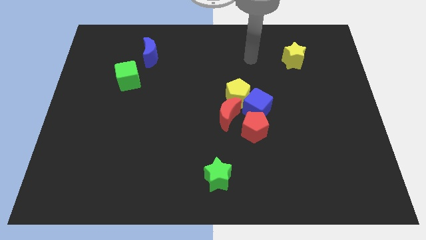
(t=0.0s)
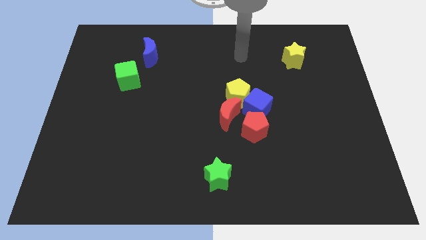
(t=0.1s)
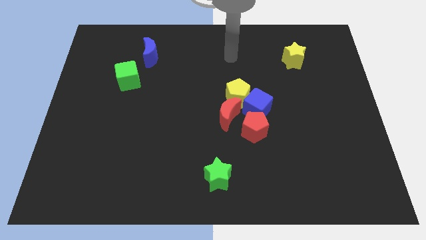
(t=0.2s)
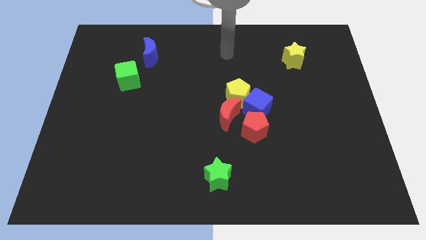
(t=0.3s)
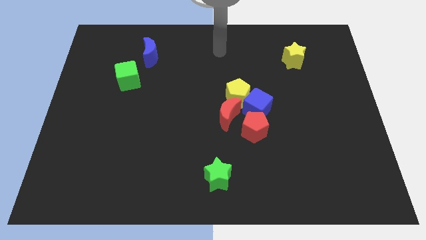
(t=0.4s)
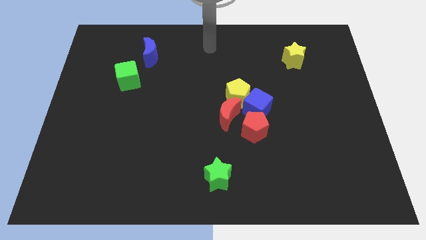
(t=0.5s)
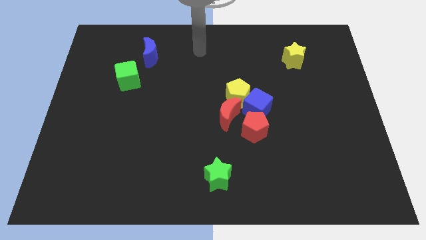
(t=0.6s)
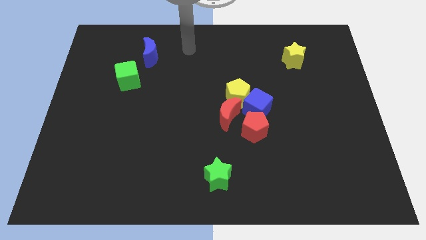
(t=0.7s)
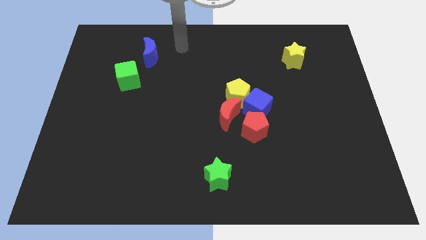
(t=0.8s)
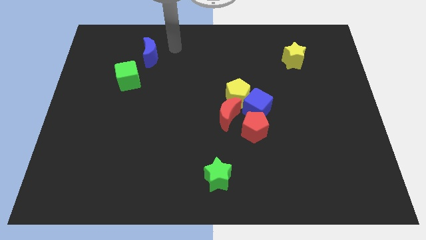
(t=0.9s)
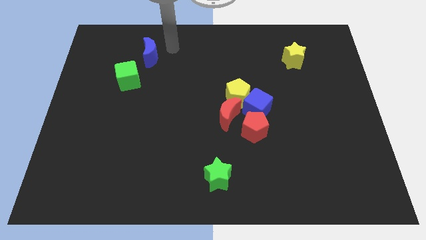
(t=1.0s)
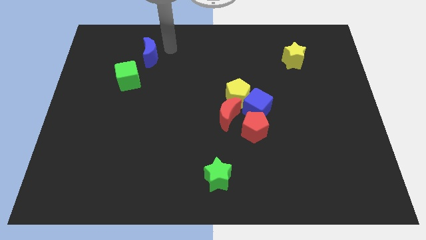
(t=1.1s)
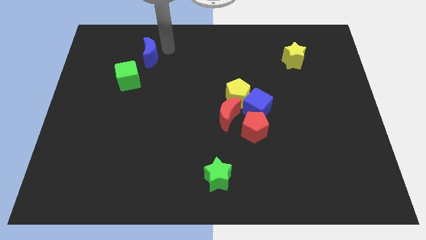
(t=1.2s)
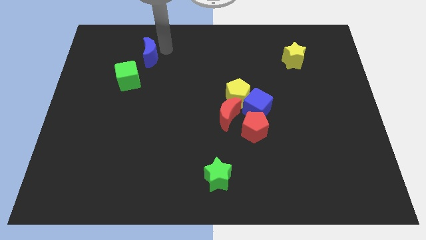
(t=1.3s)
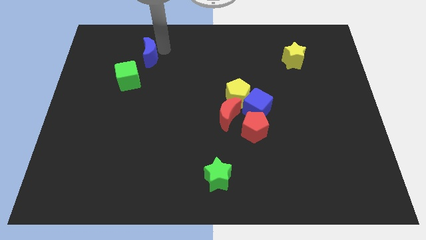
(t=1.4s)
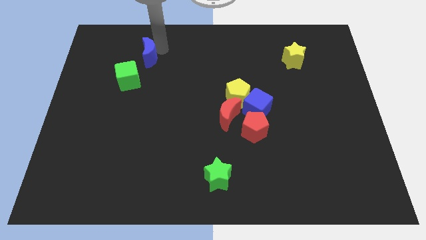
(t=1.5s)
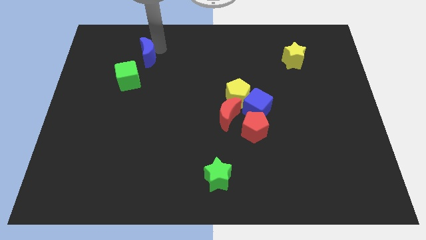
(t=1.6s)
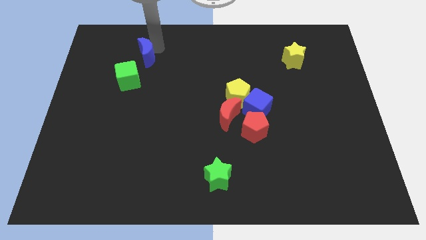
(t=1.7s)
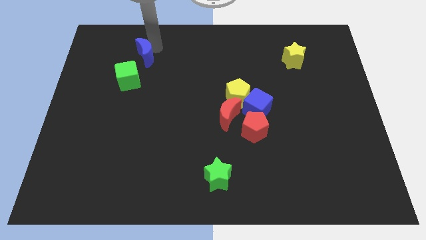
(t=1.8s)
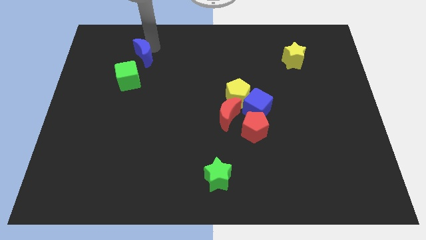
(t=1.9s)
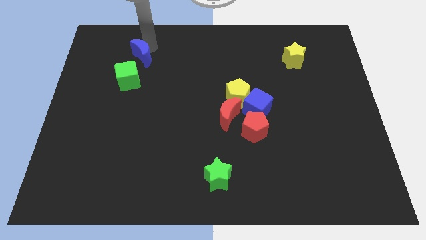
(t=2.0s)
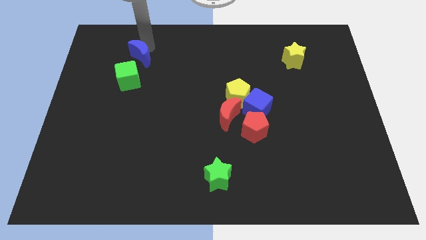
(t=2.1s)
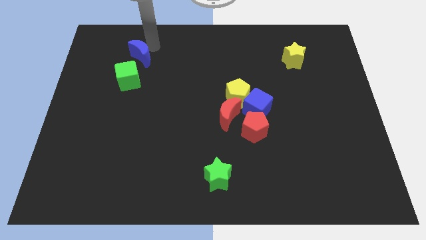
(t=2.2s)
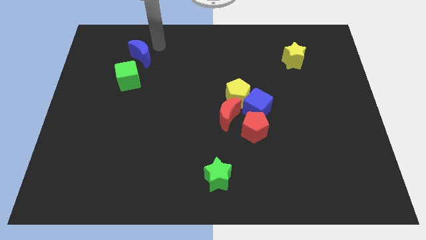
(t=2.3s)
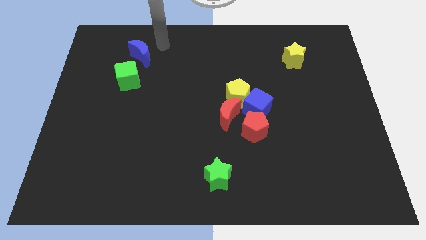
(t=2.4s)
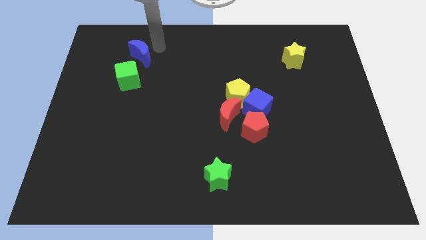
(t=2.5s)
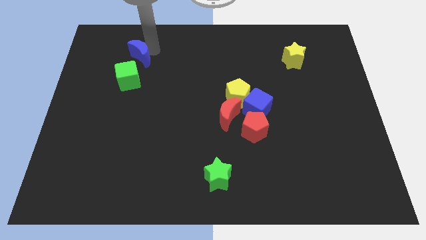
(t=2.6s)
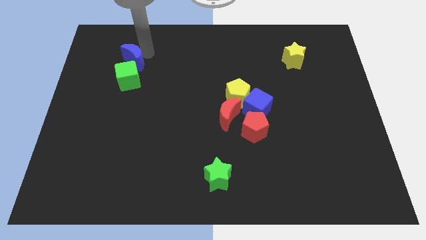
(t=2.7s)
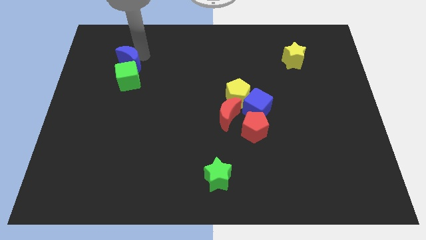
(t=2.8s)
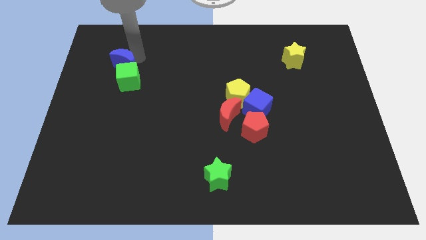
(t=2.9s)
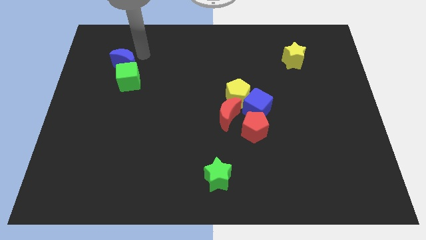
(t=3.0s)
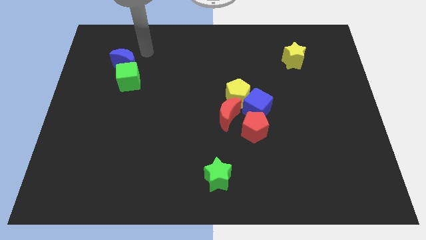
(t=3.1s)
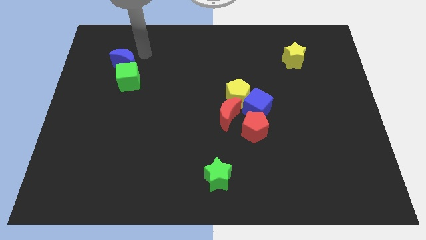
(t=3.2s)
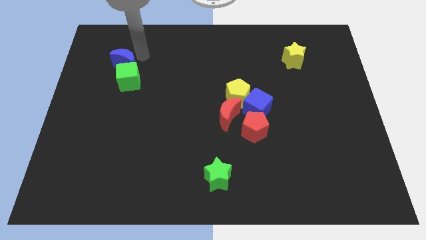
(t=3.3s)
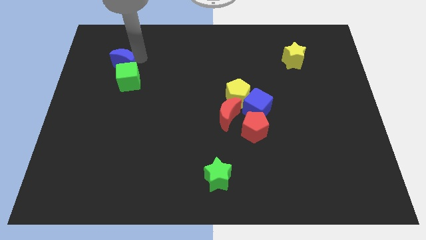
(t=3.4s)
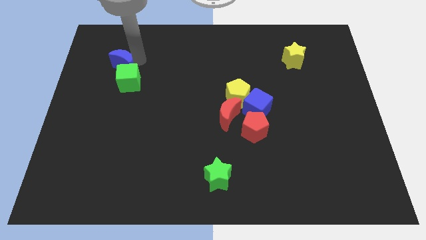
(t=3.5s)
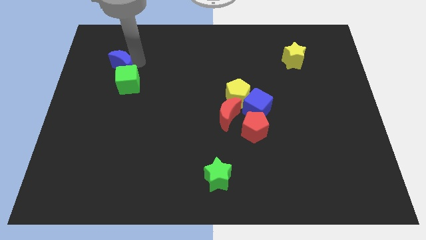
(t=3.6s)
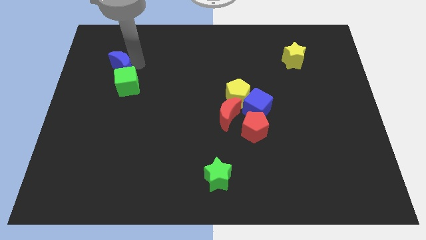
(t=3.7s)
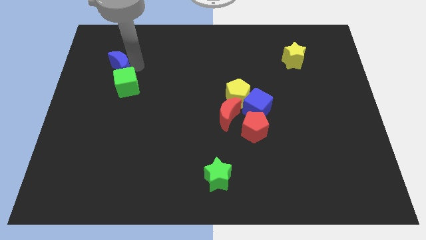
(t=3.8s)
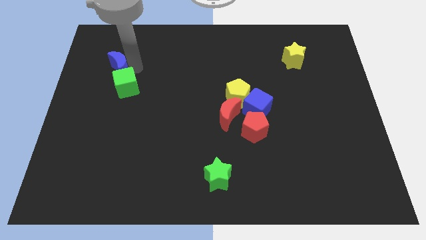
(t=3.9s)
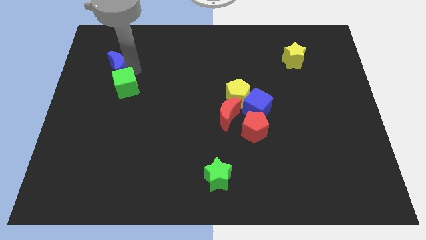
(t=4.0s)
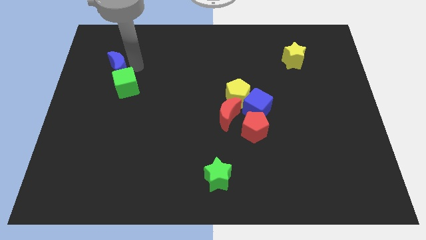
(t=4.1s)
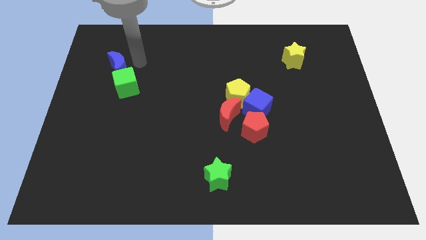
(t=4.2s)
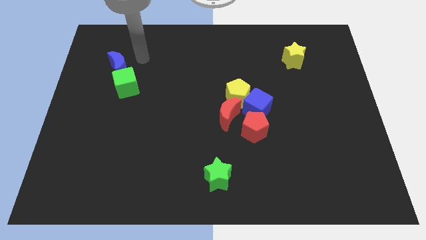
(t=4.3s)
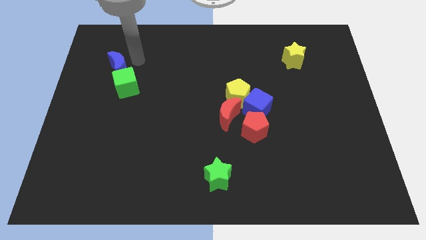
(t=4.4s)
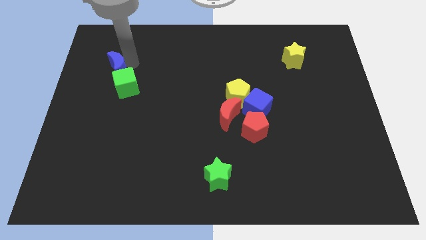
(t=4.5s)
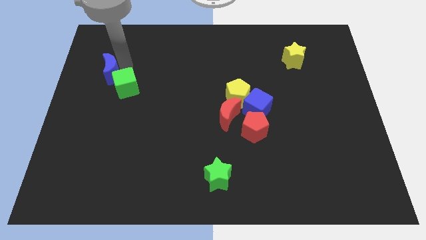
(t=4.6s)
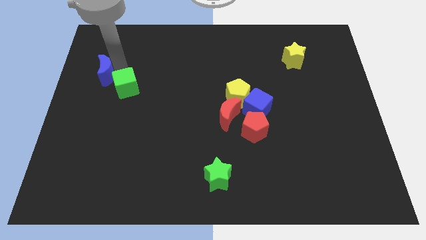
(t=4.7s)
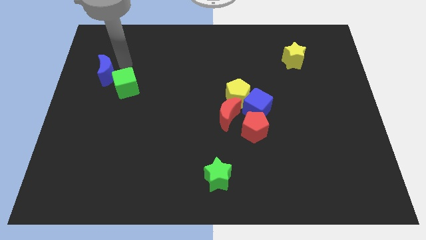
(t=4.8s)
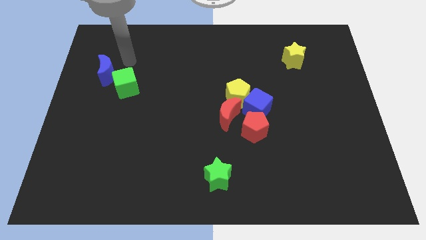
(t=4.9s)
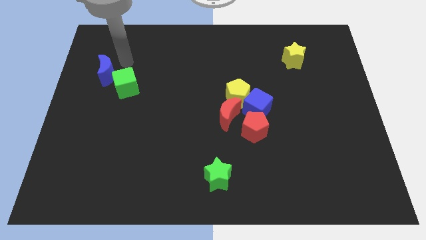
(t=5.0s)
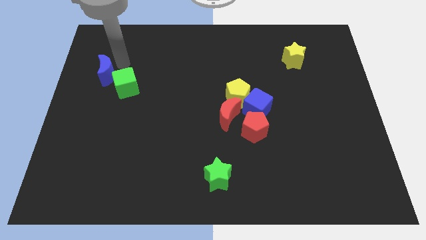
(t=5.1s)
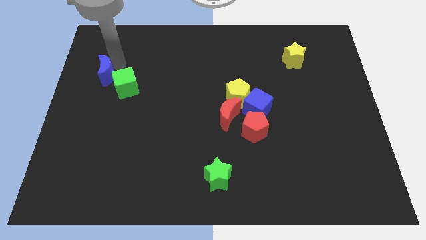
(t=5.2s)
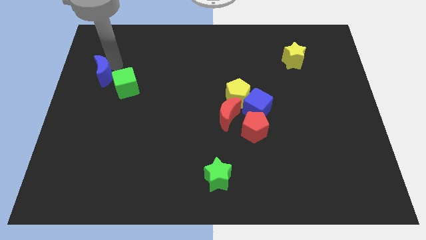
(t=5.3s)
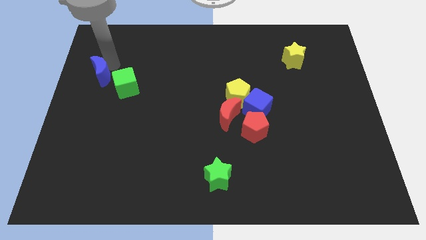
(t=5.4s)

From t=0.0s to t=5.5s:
push the blue moon to the left side of the board

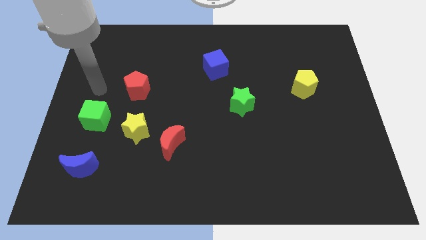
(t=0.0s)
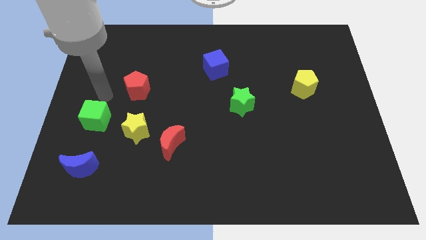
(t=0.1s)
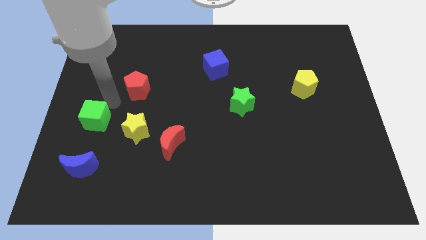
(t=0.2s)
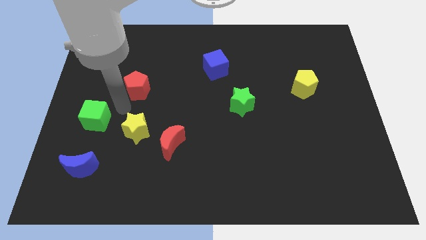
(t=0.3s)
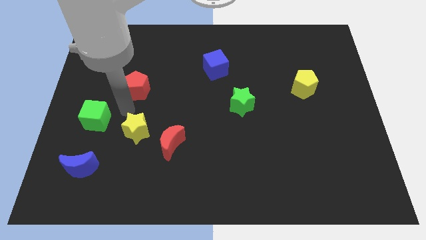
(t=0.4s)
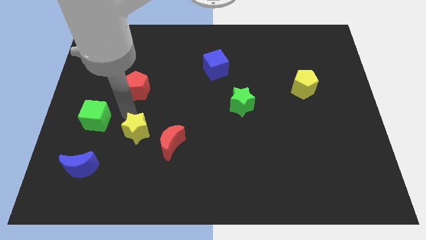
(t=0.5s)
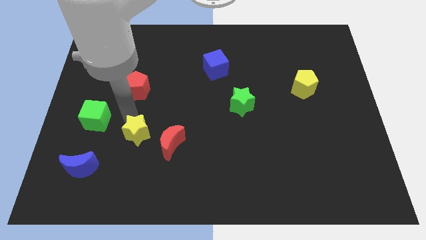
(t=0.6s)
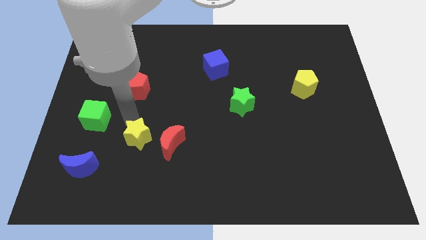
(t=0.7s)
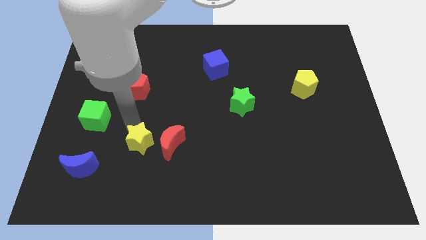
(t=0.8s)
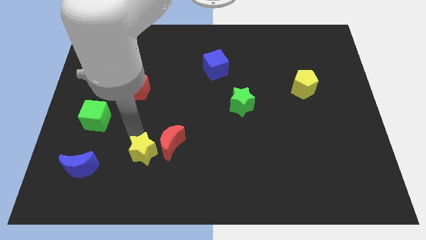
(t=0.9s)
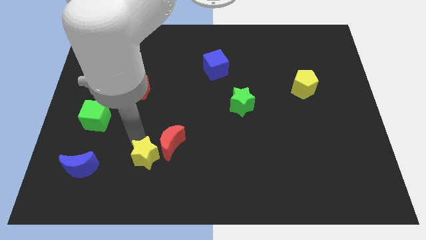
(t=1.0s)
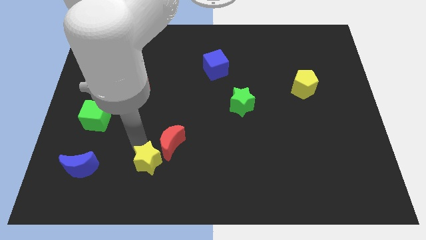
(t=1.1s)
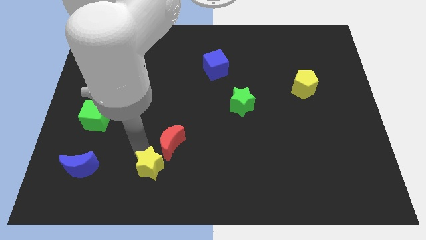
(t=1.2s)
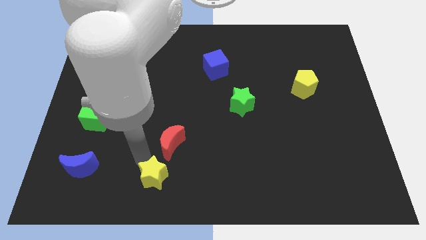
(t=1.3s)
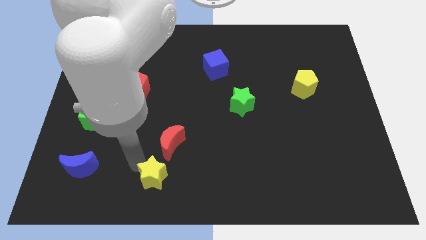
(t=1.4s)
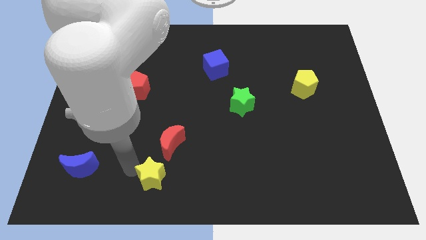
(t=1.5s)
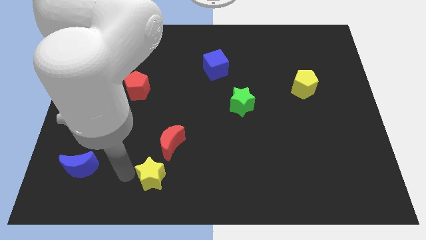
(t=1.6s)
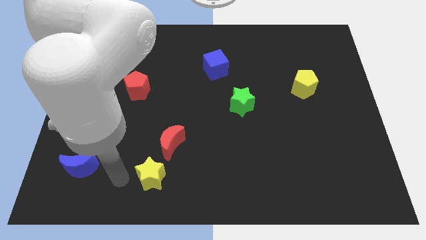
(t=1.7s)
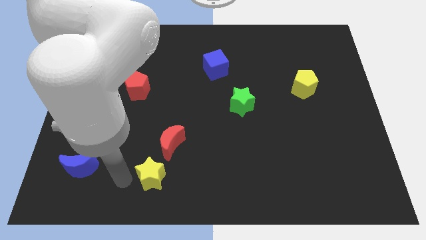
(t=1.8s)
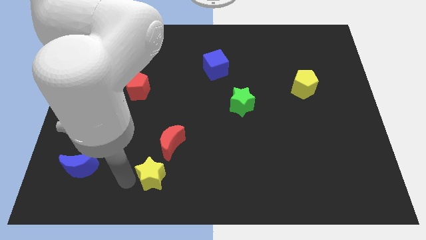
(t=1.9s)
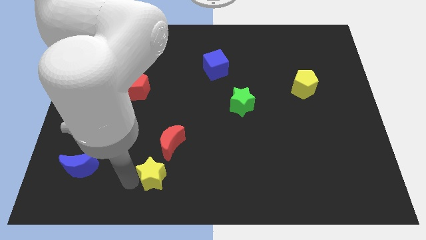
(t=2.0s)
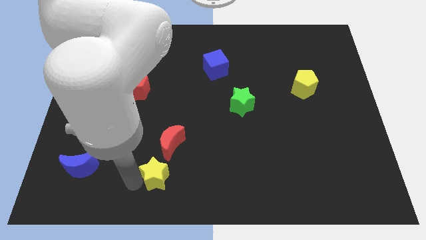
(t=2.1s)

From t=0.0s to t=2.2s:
put the yellow star to the bottom side
